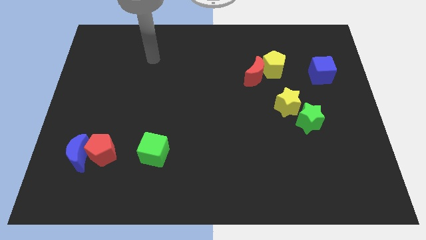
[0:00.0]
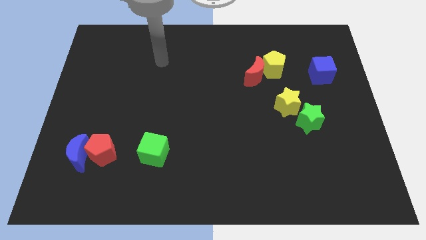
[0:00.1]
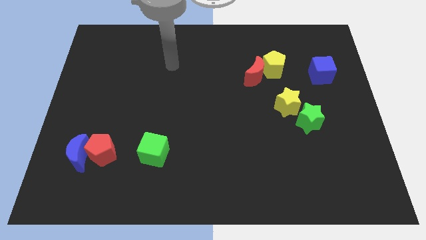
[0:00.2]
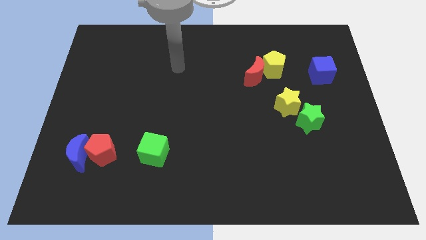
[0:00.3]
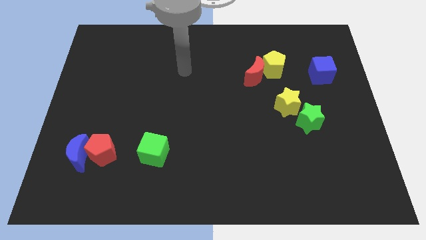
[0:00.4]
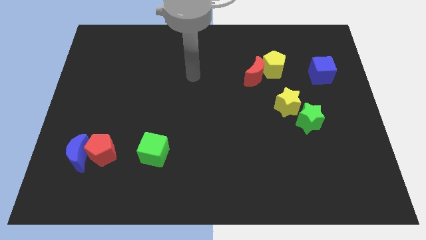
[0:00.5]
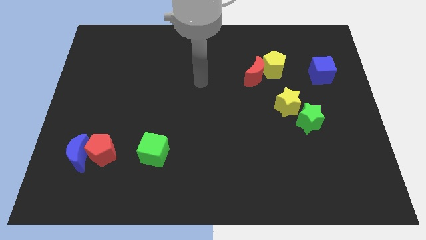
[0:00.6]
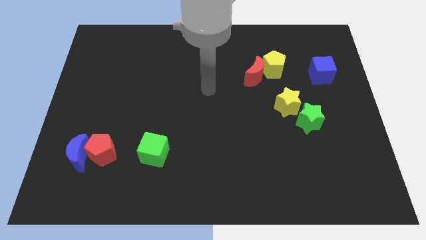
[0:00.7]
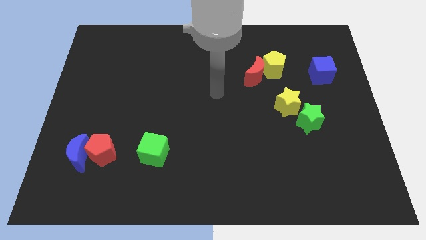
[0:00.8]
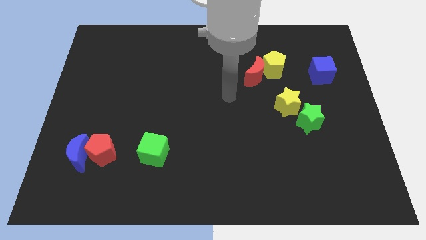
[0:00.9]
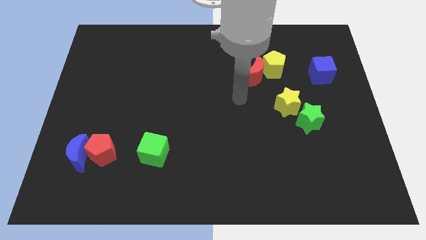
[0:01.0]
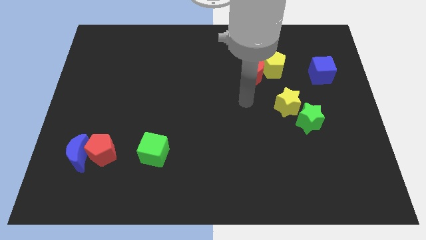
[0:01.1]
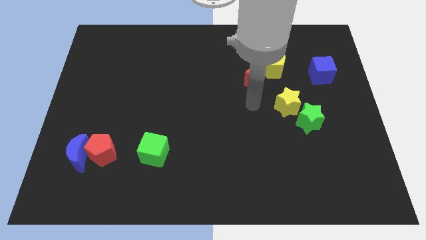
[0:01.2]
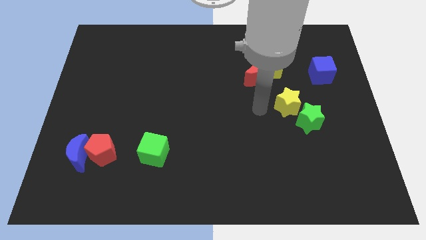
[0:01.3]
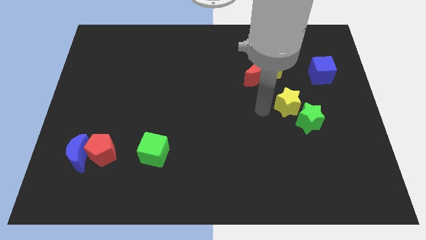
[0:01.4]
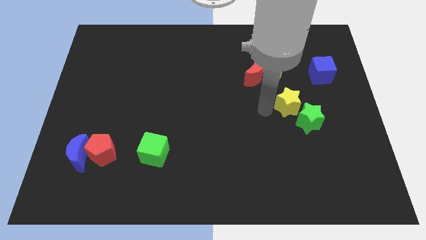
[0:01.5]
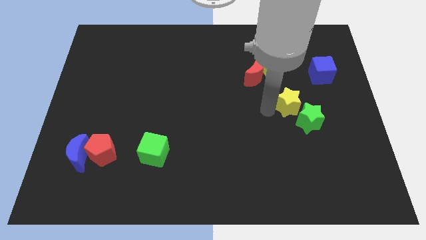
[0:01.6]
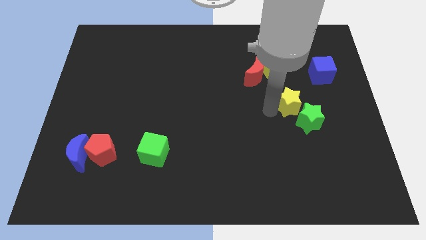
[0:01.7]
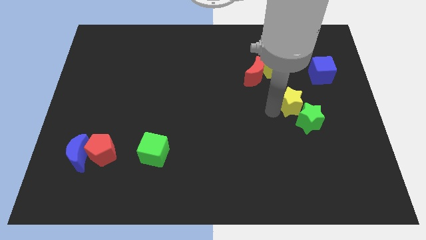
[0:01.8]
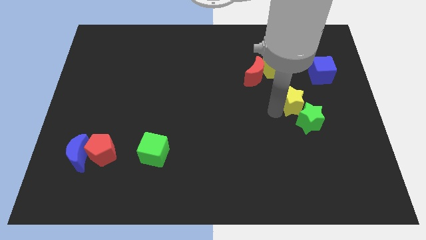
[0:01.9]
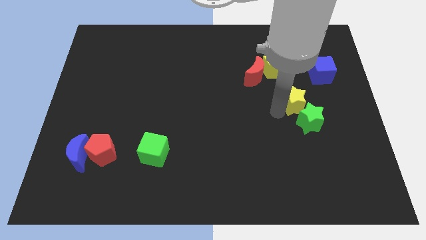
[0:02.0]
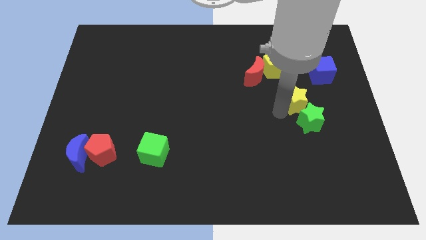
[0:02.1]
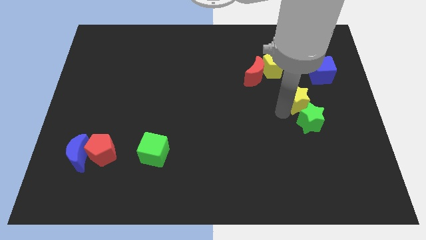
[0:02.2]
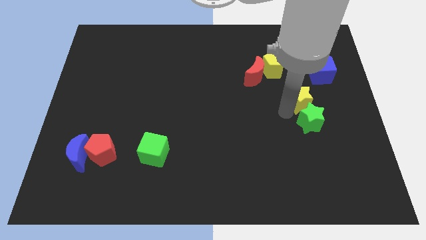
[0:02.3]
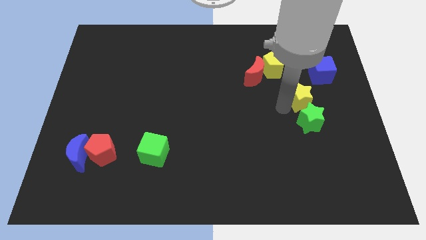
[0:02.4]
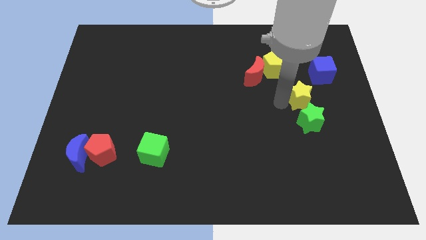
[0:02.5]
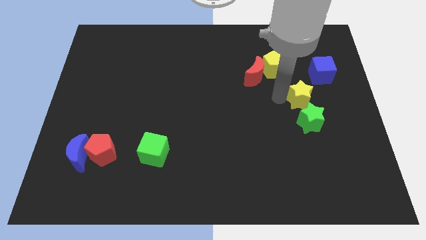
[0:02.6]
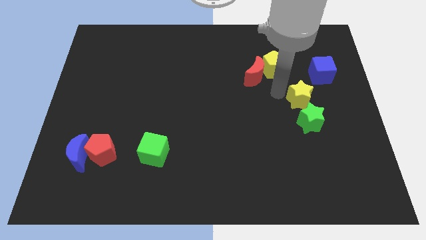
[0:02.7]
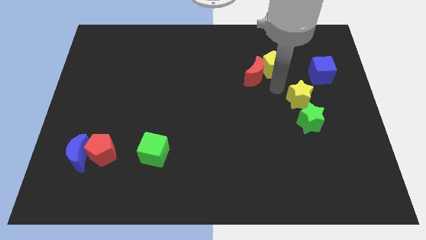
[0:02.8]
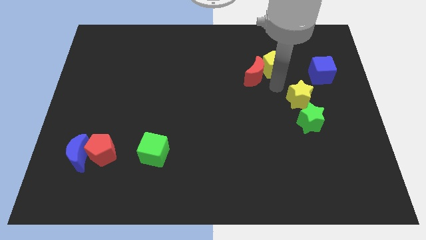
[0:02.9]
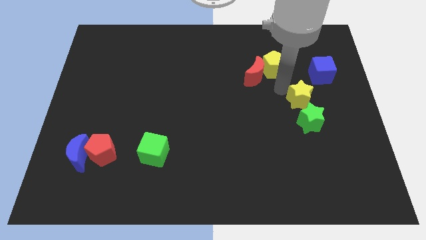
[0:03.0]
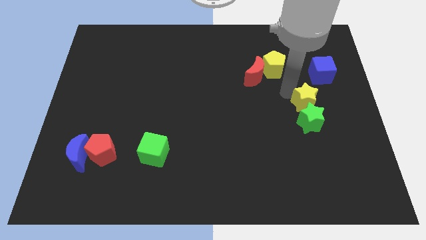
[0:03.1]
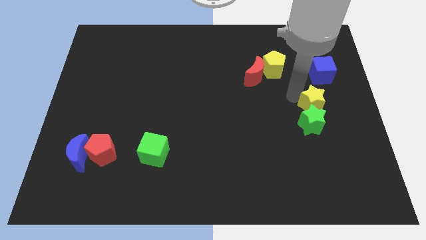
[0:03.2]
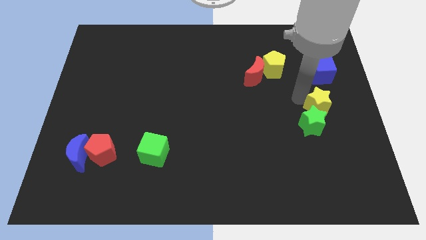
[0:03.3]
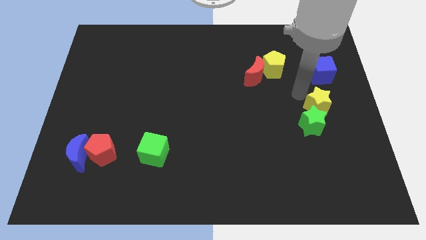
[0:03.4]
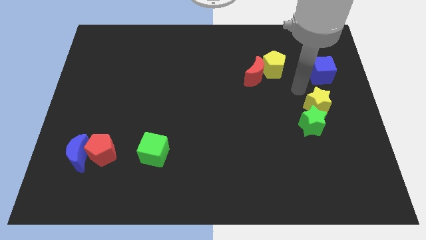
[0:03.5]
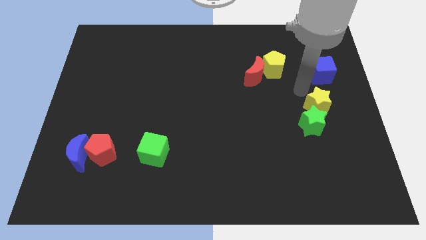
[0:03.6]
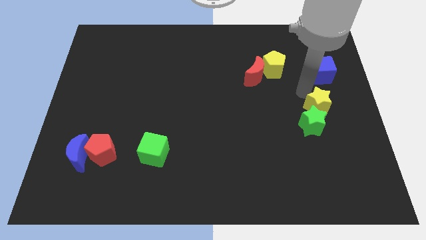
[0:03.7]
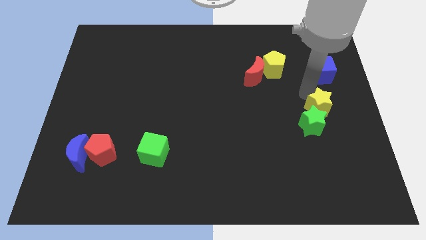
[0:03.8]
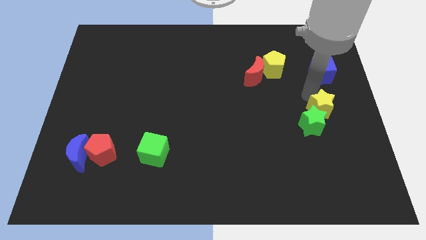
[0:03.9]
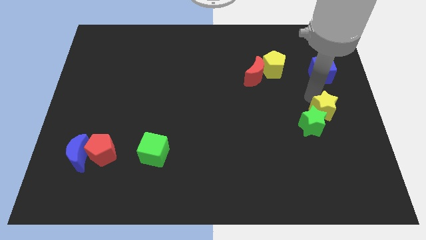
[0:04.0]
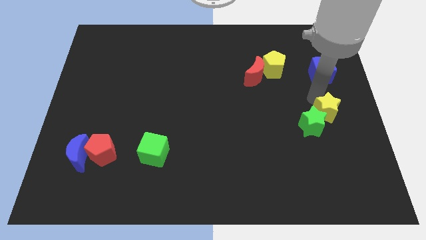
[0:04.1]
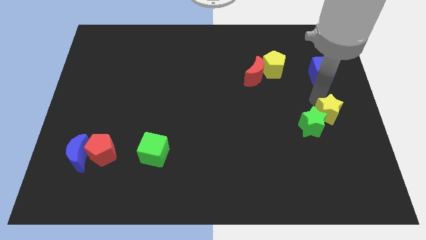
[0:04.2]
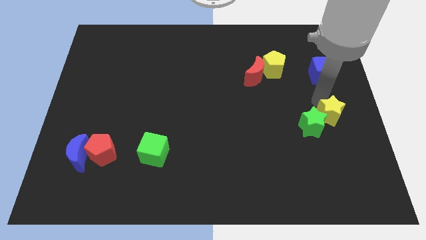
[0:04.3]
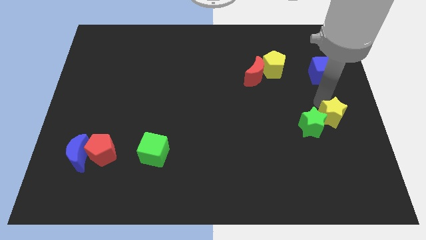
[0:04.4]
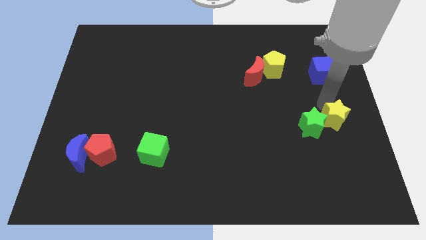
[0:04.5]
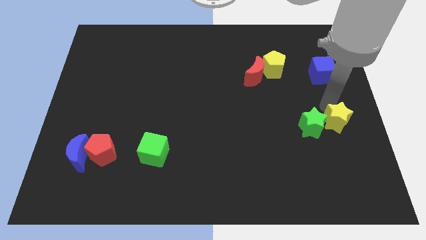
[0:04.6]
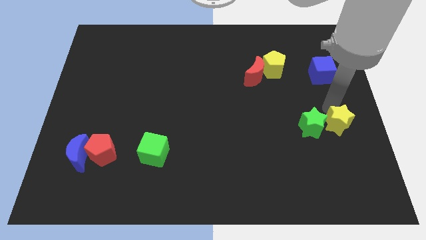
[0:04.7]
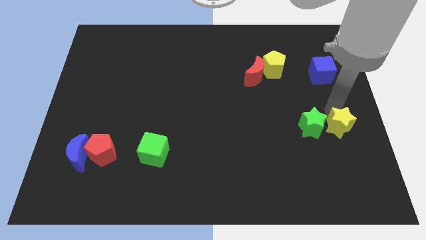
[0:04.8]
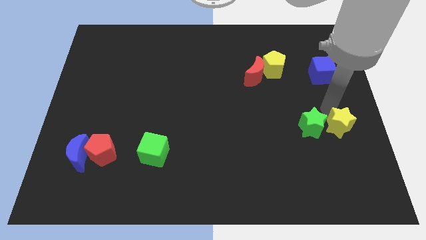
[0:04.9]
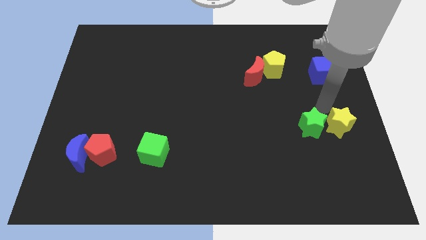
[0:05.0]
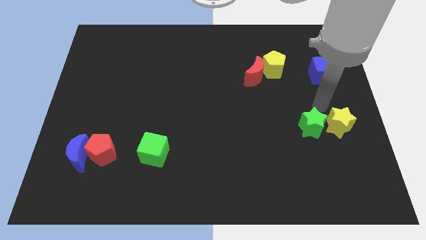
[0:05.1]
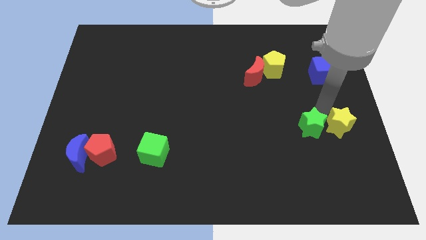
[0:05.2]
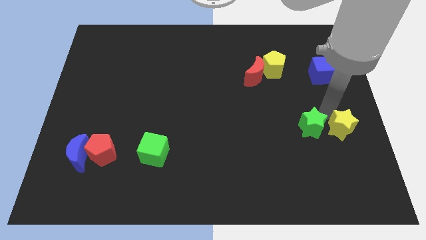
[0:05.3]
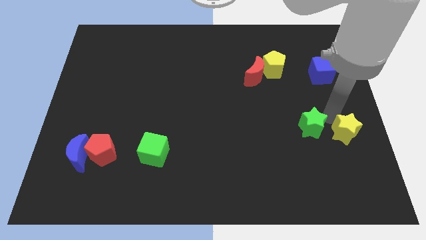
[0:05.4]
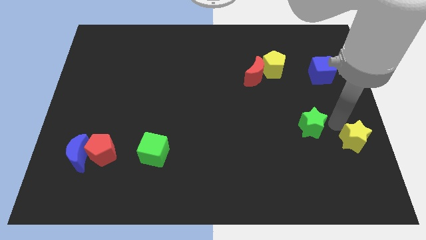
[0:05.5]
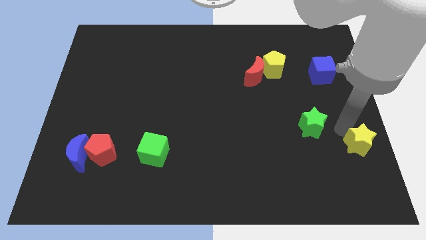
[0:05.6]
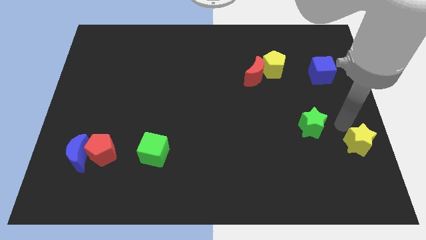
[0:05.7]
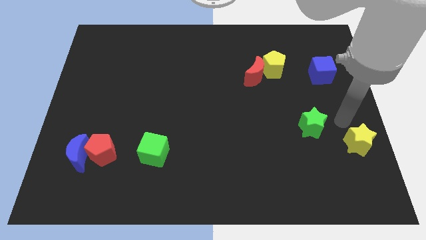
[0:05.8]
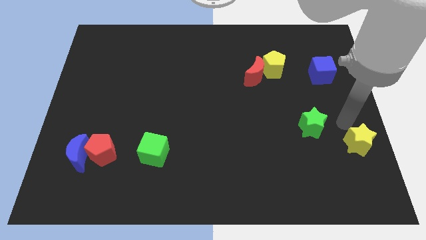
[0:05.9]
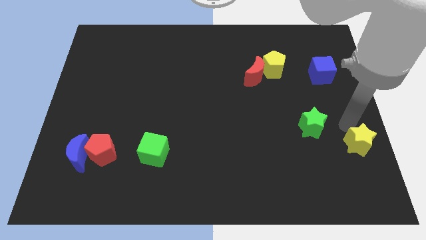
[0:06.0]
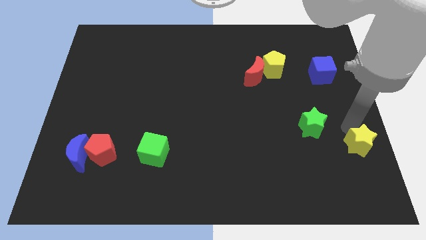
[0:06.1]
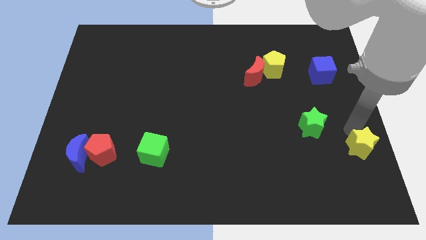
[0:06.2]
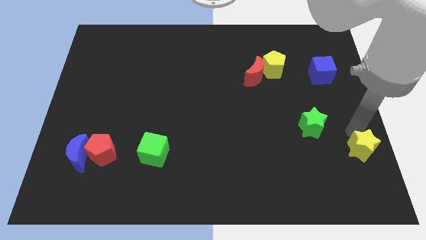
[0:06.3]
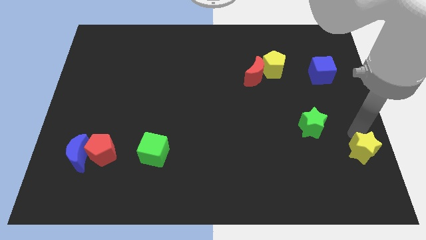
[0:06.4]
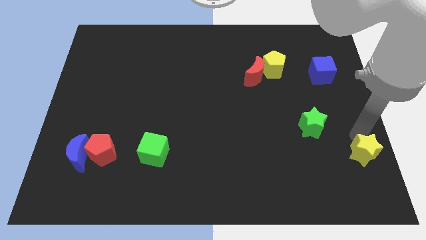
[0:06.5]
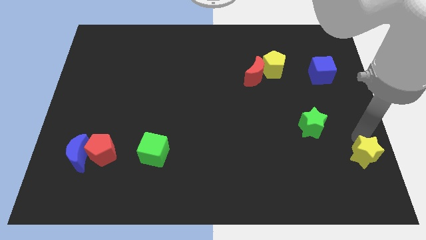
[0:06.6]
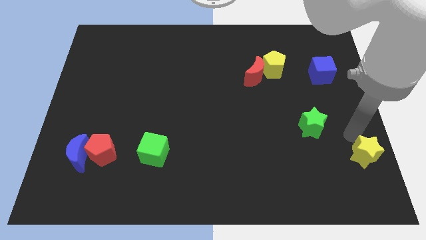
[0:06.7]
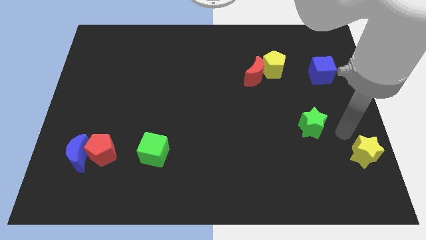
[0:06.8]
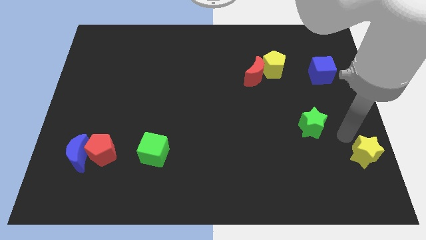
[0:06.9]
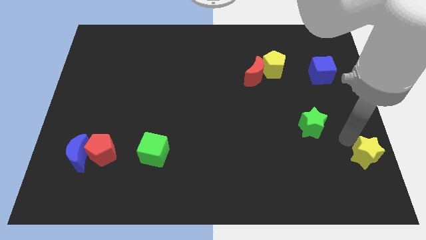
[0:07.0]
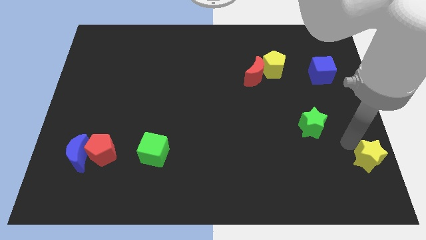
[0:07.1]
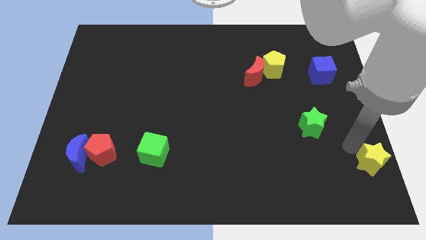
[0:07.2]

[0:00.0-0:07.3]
push the yellow star to the bottom right of the board
